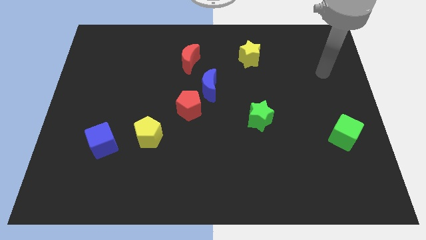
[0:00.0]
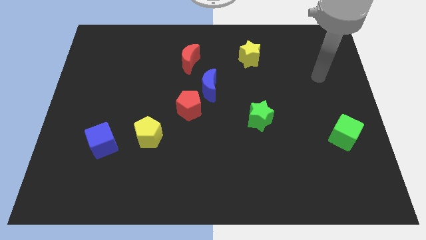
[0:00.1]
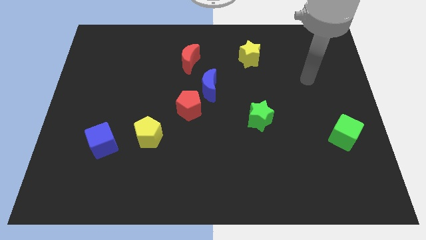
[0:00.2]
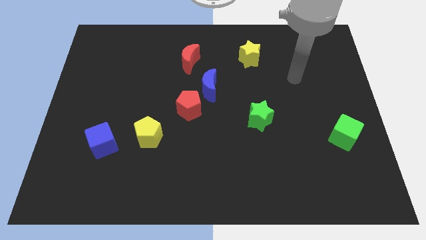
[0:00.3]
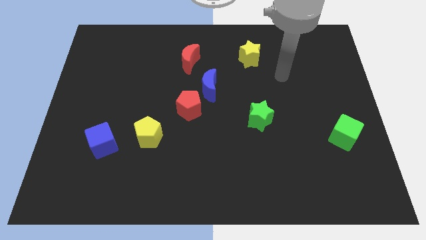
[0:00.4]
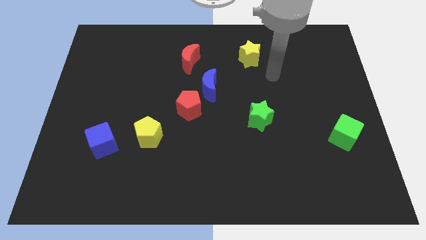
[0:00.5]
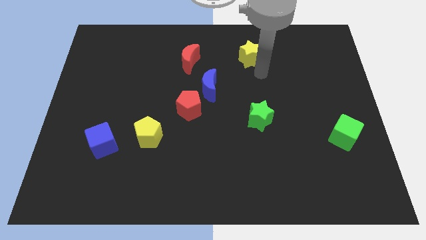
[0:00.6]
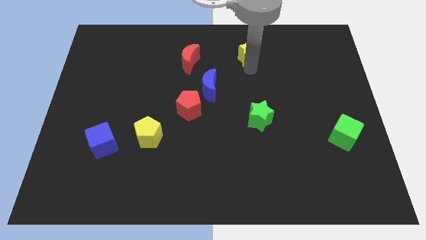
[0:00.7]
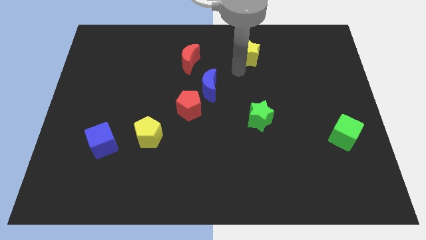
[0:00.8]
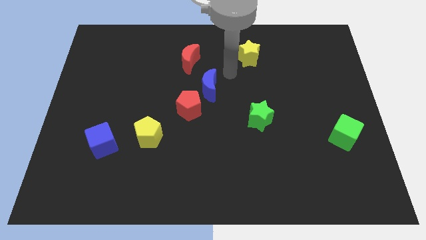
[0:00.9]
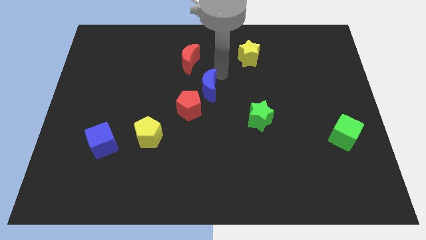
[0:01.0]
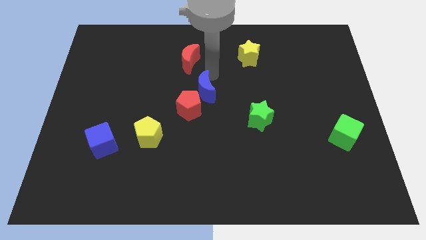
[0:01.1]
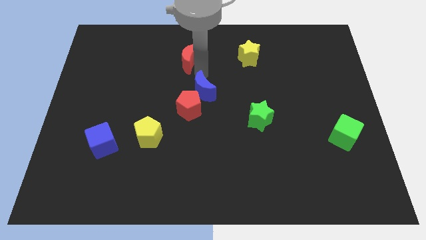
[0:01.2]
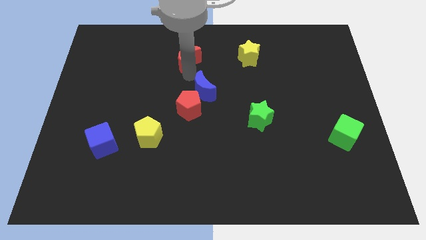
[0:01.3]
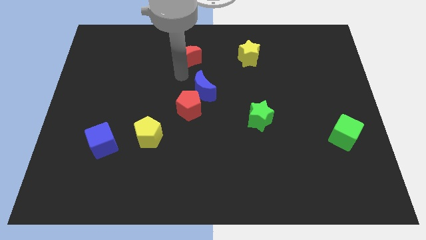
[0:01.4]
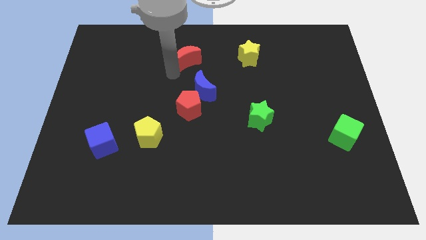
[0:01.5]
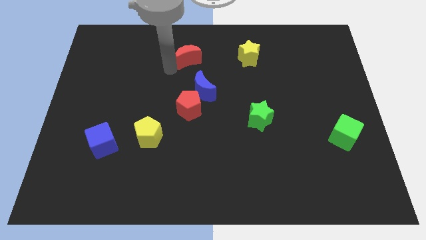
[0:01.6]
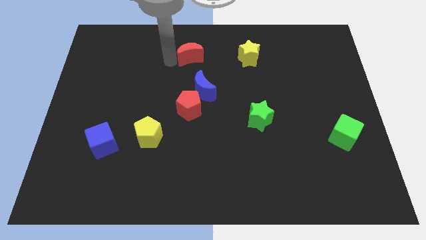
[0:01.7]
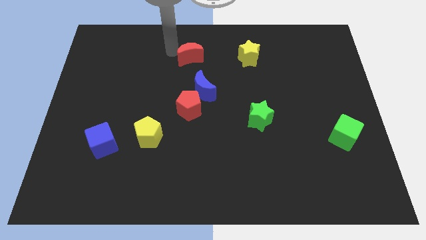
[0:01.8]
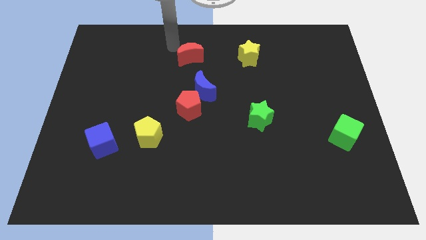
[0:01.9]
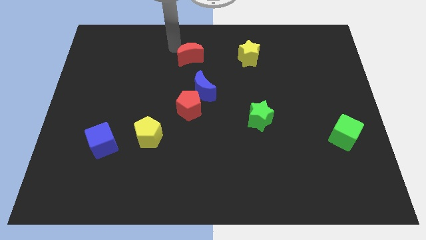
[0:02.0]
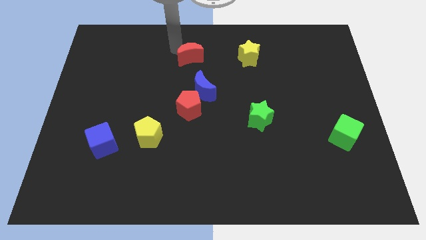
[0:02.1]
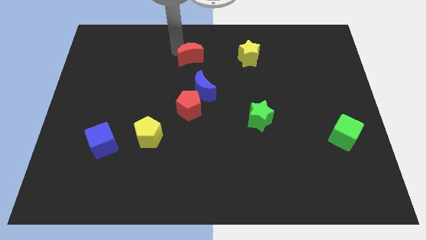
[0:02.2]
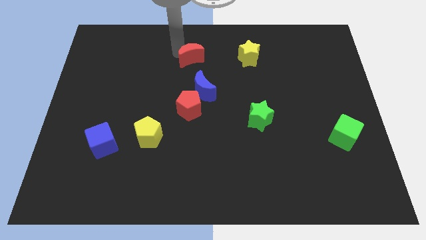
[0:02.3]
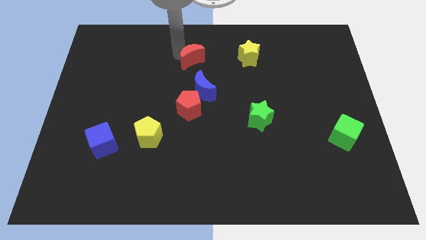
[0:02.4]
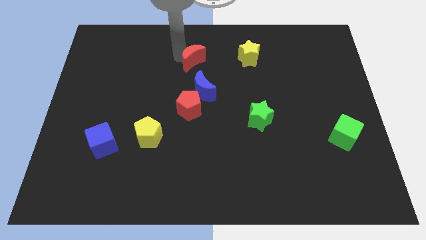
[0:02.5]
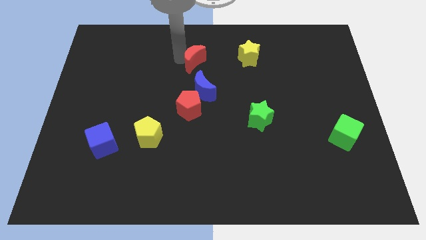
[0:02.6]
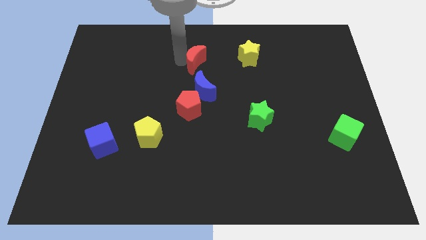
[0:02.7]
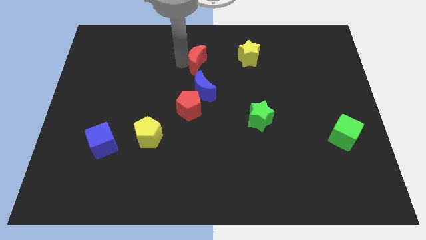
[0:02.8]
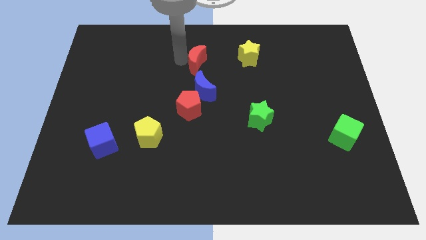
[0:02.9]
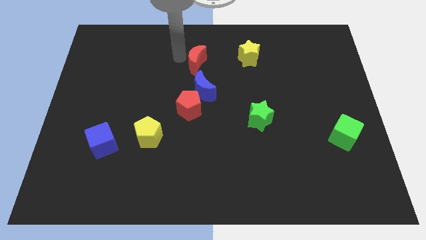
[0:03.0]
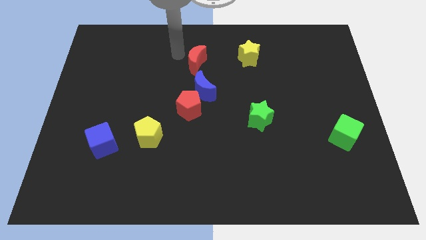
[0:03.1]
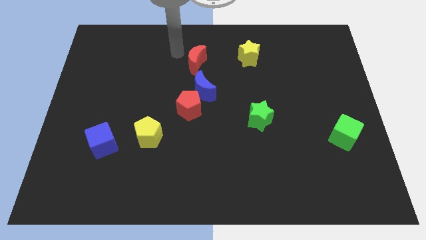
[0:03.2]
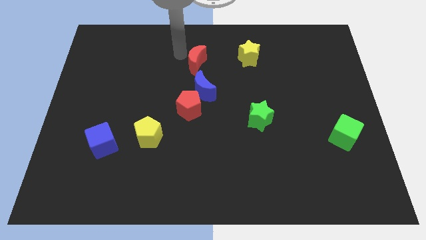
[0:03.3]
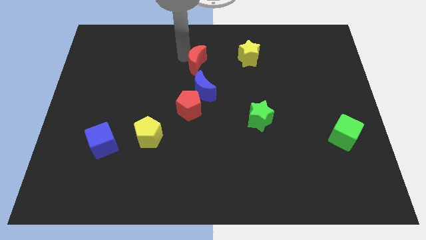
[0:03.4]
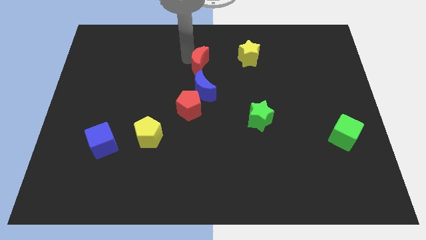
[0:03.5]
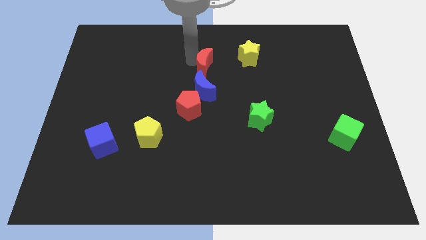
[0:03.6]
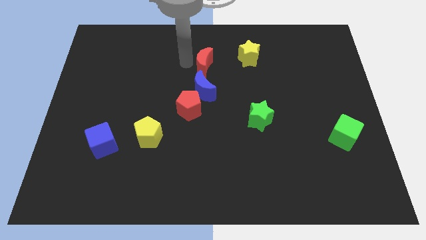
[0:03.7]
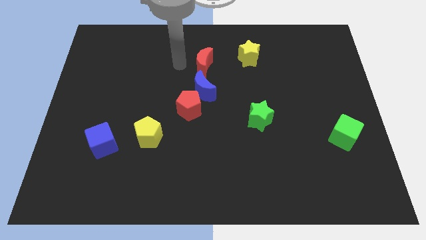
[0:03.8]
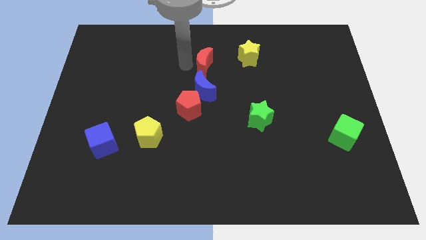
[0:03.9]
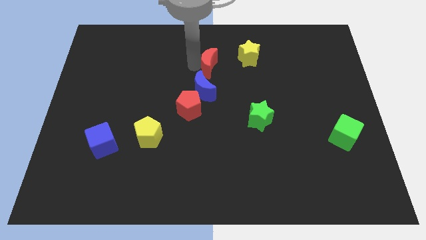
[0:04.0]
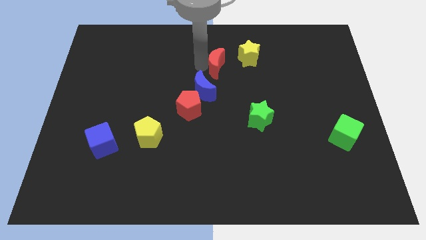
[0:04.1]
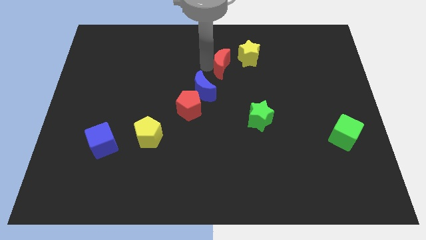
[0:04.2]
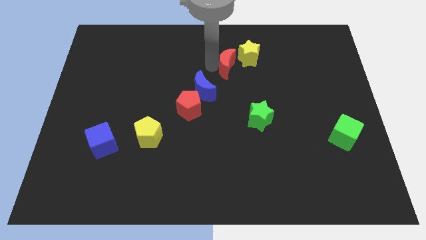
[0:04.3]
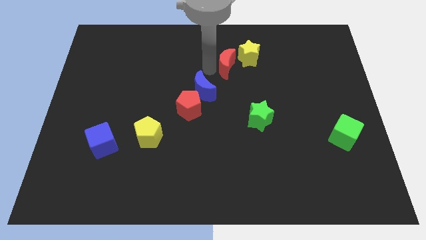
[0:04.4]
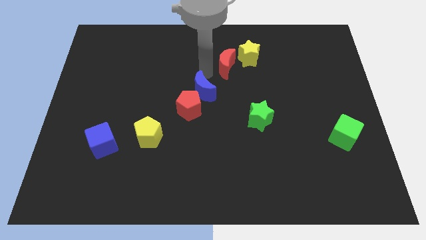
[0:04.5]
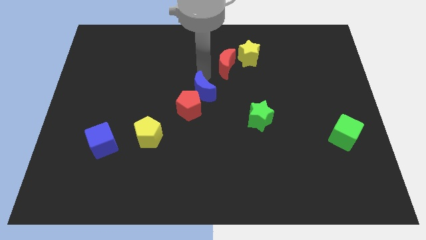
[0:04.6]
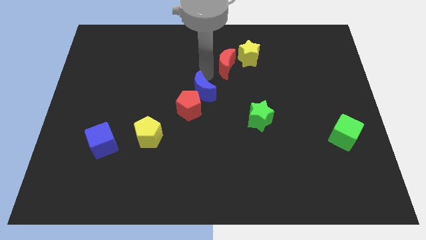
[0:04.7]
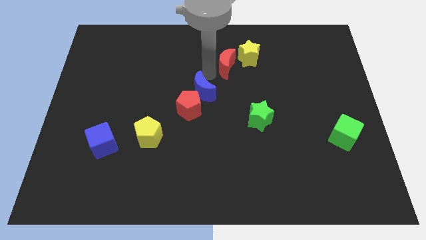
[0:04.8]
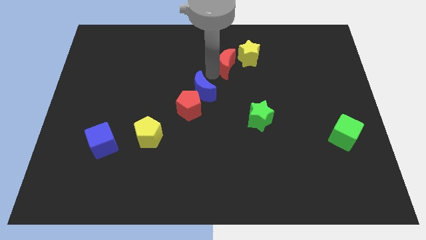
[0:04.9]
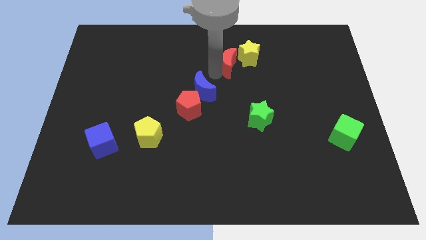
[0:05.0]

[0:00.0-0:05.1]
move the red moon close to the yellow star

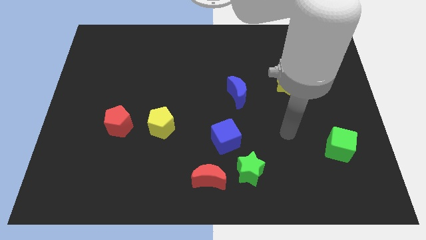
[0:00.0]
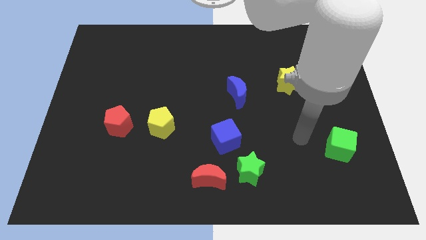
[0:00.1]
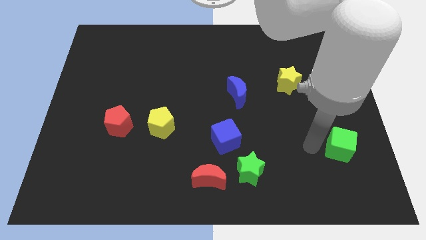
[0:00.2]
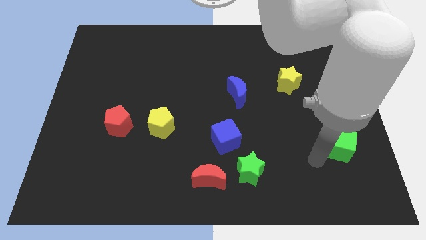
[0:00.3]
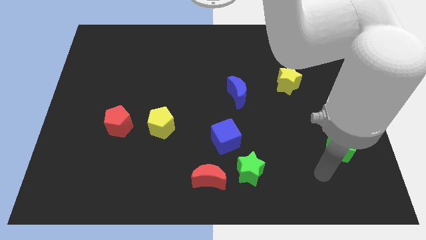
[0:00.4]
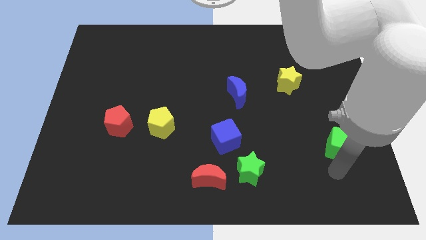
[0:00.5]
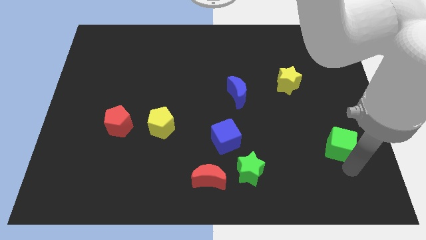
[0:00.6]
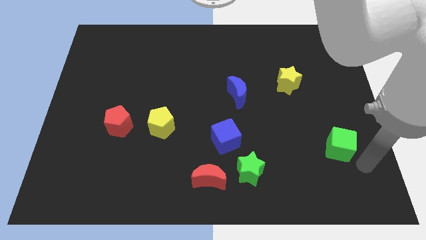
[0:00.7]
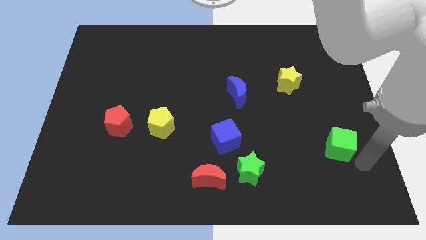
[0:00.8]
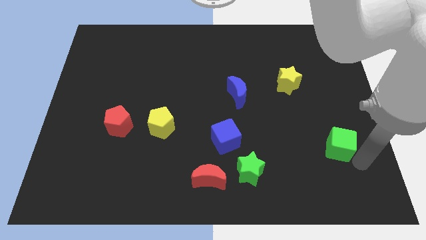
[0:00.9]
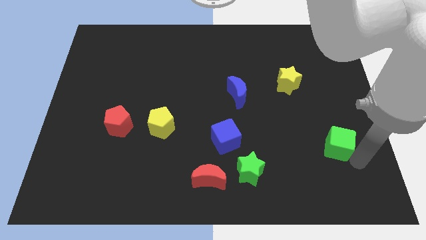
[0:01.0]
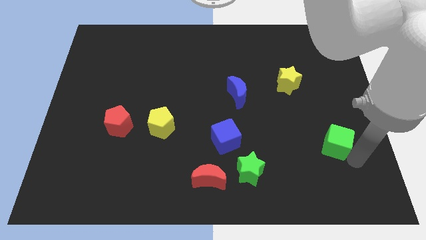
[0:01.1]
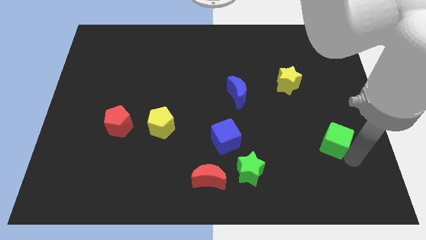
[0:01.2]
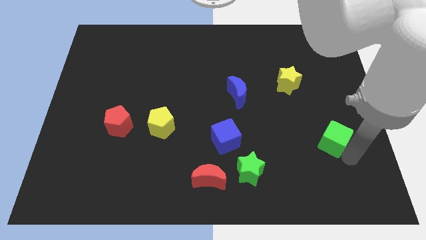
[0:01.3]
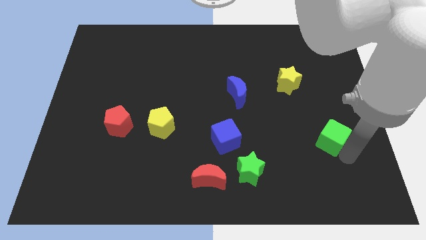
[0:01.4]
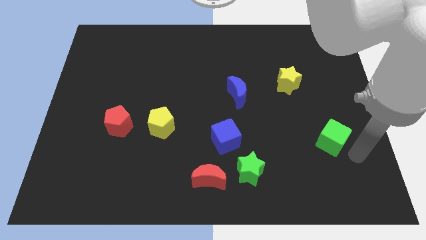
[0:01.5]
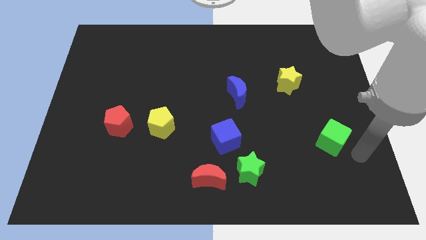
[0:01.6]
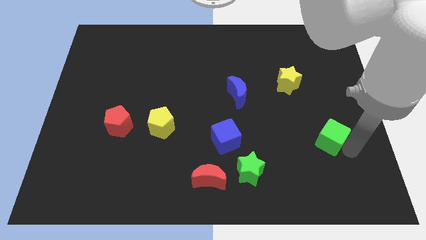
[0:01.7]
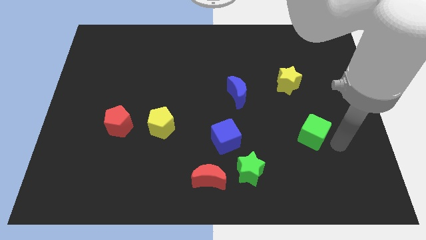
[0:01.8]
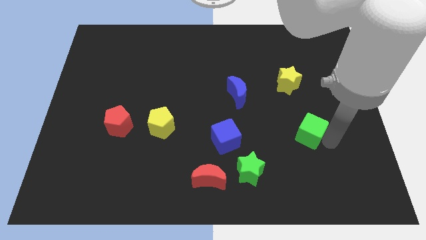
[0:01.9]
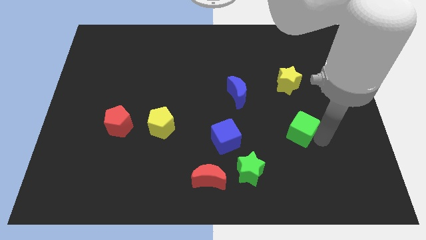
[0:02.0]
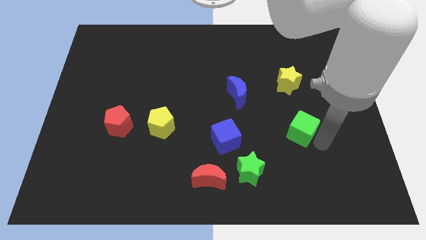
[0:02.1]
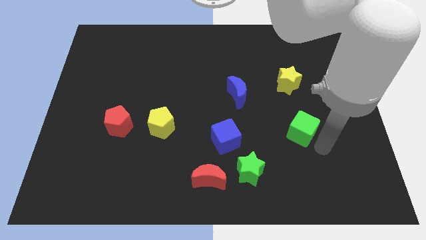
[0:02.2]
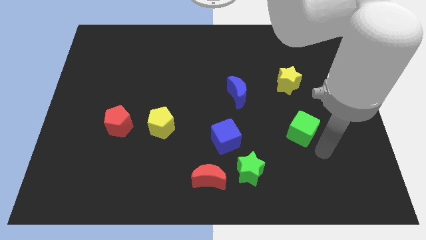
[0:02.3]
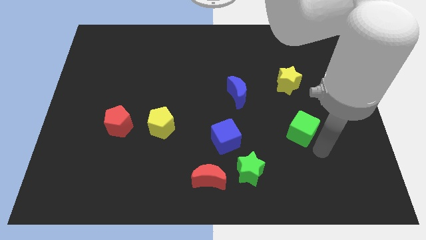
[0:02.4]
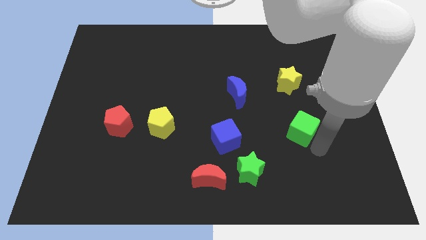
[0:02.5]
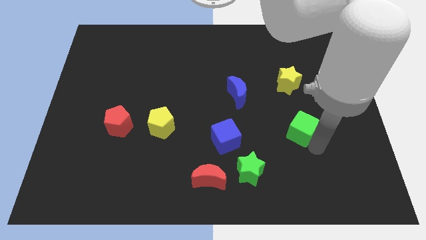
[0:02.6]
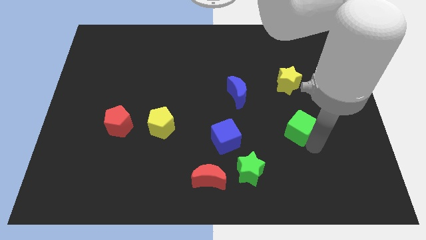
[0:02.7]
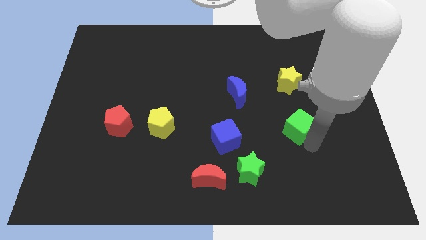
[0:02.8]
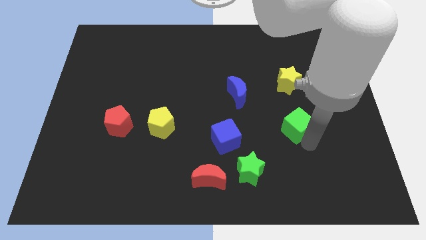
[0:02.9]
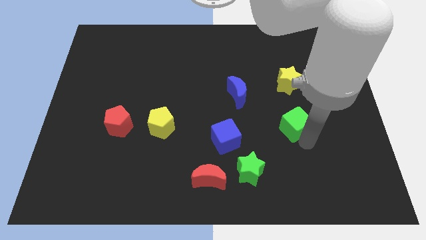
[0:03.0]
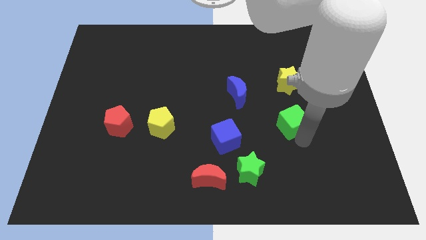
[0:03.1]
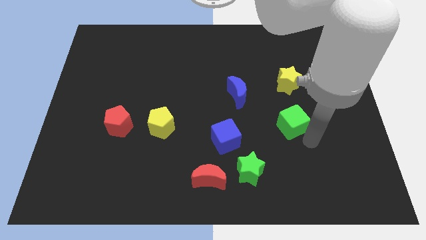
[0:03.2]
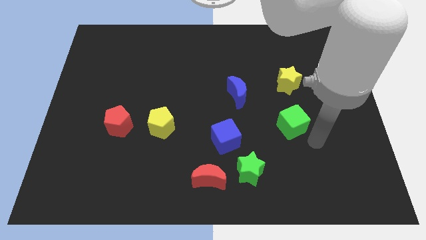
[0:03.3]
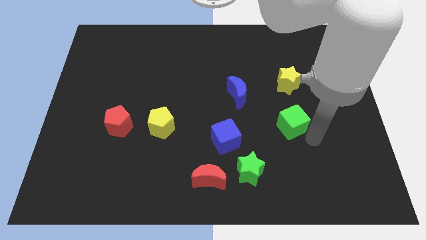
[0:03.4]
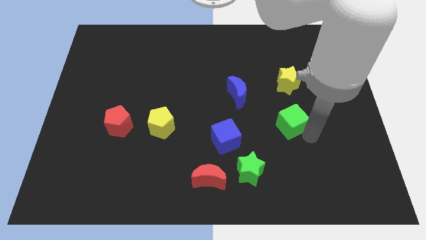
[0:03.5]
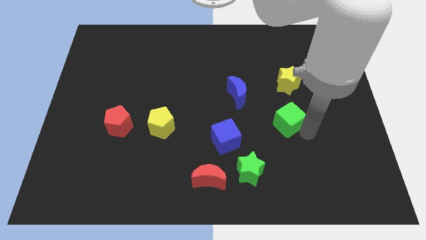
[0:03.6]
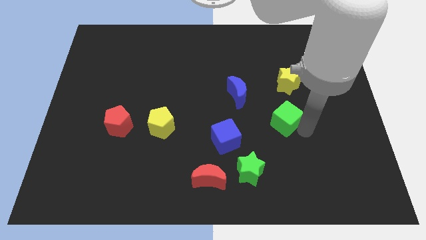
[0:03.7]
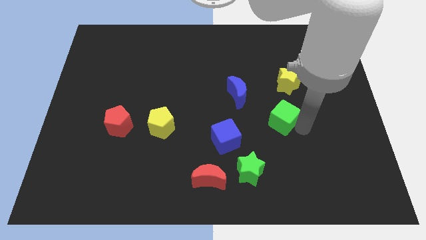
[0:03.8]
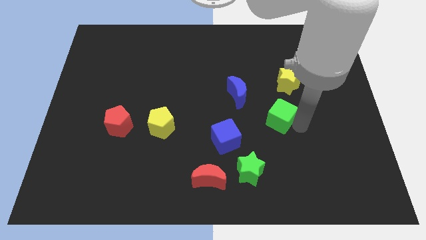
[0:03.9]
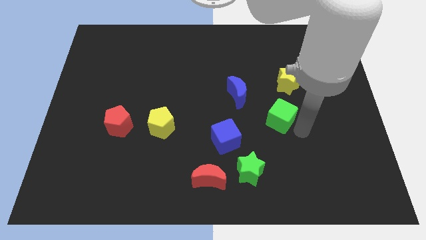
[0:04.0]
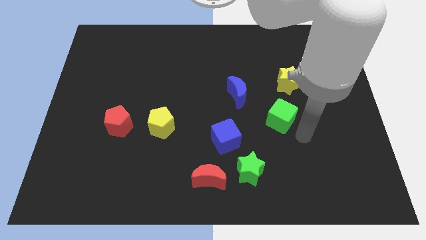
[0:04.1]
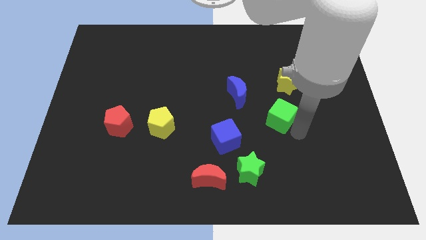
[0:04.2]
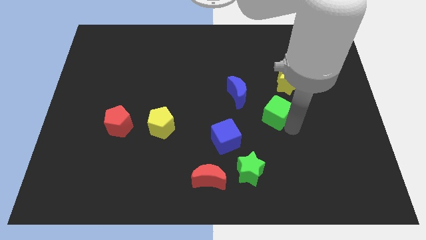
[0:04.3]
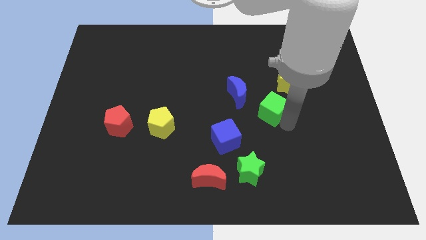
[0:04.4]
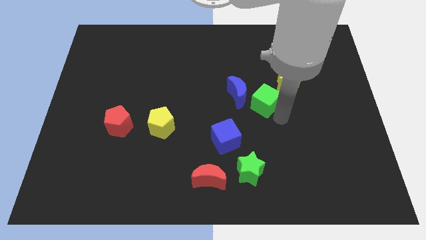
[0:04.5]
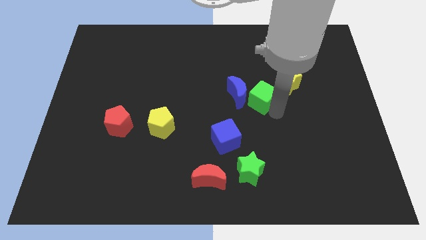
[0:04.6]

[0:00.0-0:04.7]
move the green cube towards the blue moon
